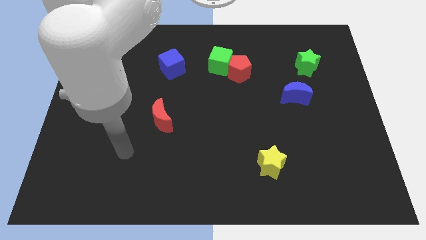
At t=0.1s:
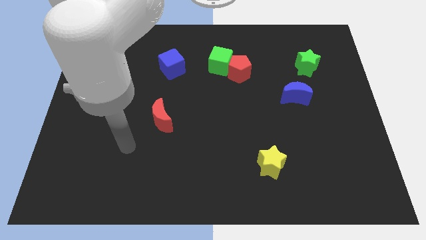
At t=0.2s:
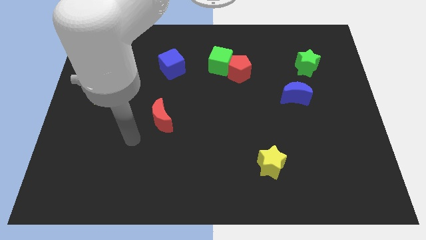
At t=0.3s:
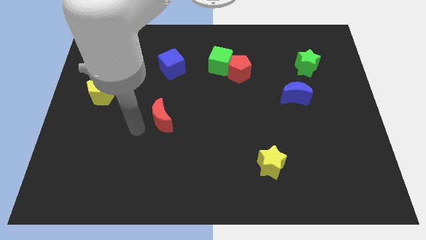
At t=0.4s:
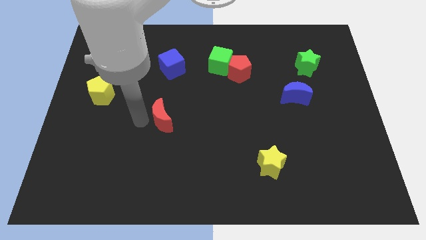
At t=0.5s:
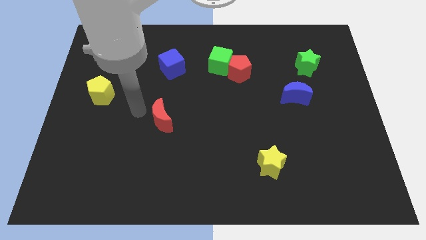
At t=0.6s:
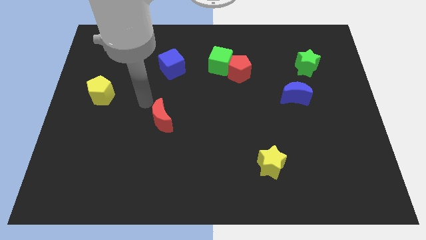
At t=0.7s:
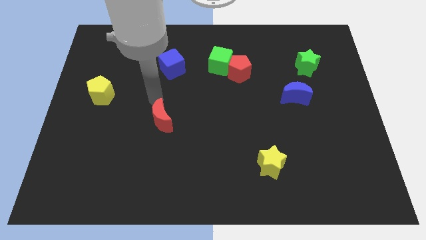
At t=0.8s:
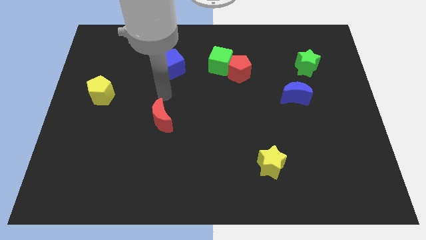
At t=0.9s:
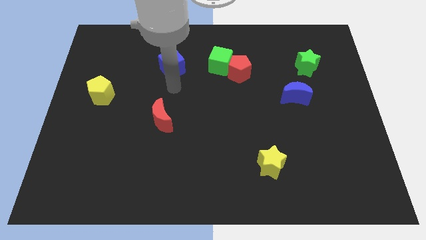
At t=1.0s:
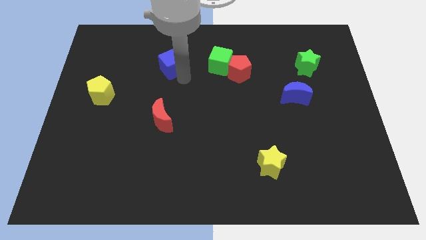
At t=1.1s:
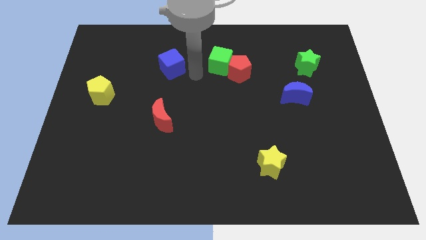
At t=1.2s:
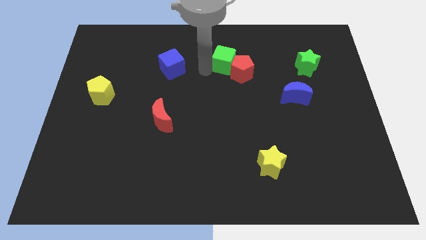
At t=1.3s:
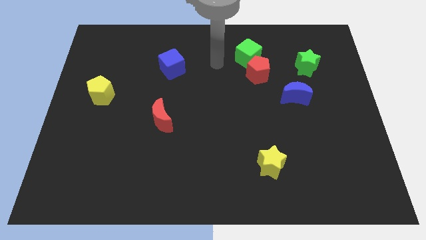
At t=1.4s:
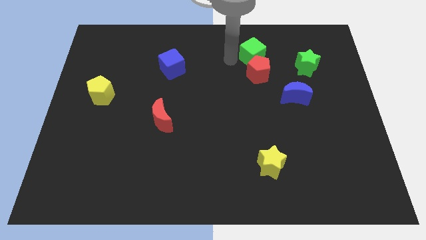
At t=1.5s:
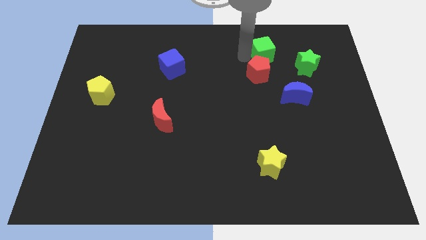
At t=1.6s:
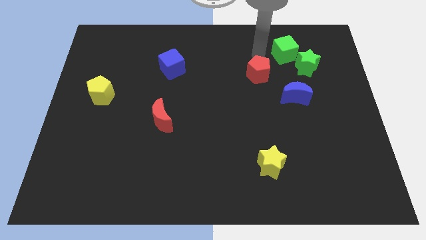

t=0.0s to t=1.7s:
pull the red pentagon apart from the green cube

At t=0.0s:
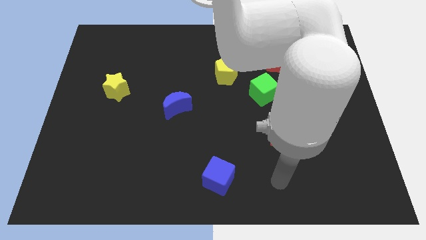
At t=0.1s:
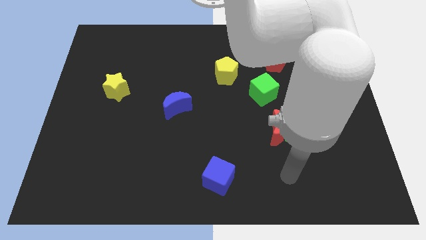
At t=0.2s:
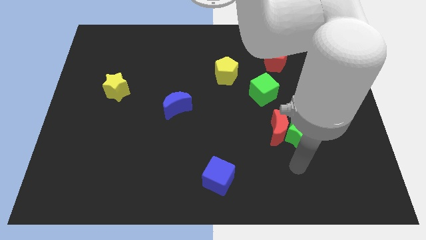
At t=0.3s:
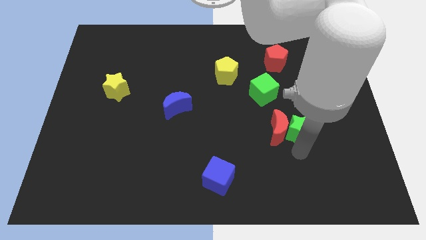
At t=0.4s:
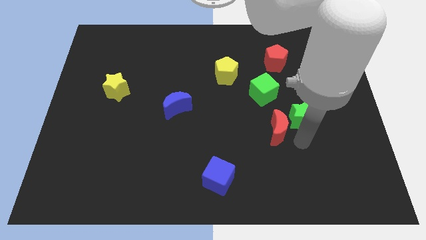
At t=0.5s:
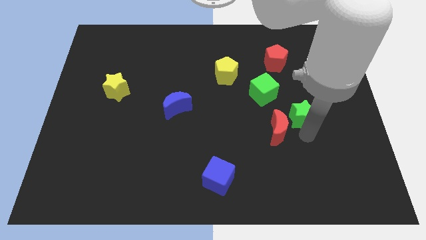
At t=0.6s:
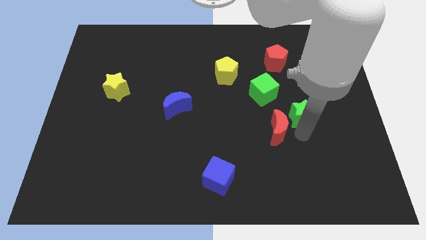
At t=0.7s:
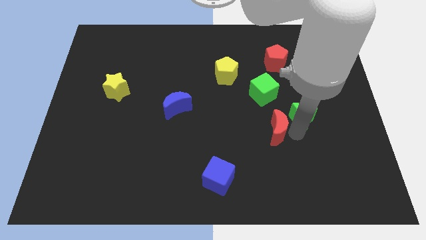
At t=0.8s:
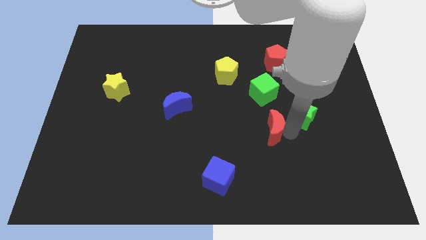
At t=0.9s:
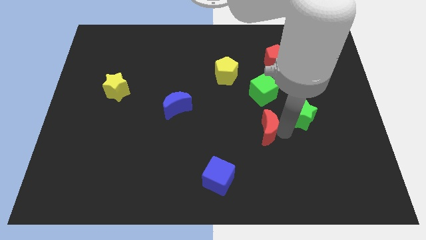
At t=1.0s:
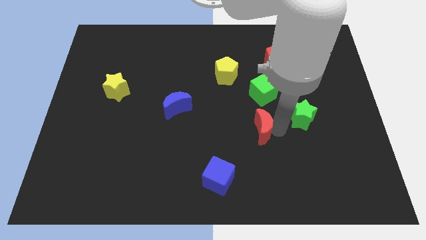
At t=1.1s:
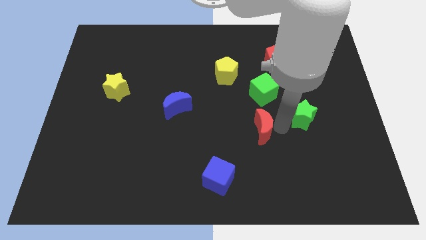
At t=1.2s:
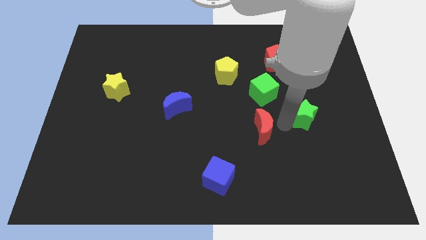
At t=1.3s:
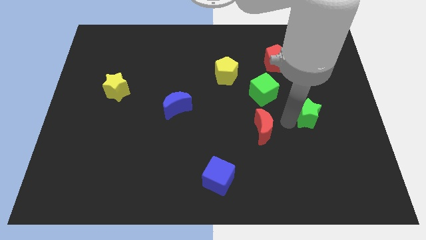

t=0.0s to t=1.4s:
move the red moon away from the green star

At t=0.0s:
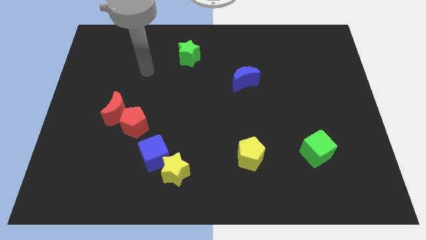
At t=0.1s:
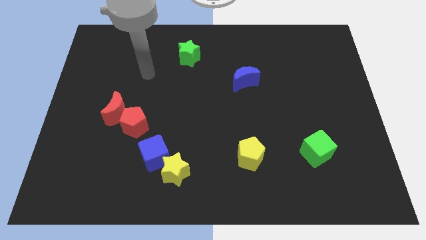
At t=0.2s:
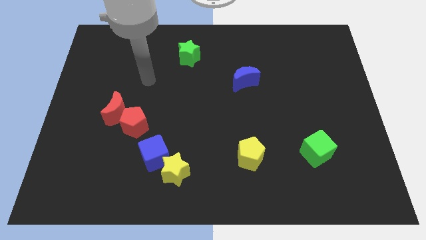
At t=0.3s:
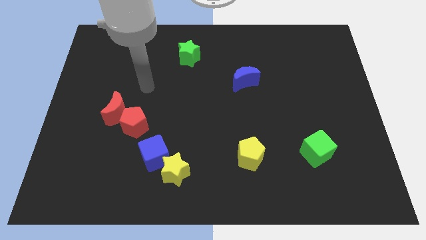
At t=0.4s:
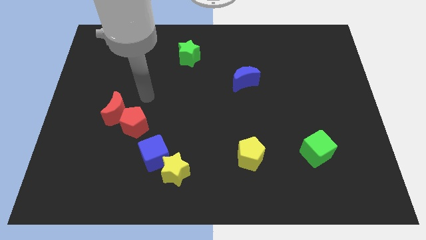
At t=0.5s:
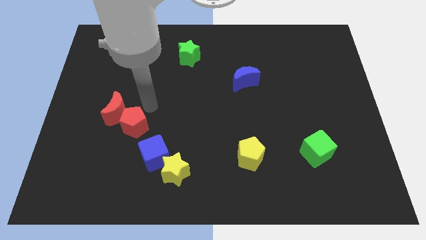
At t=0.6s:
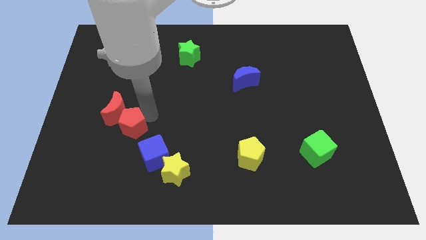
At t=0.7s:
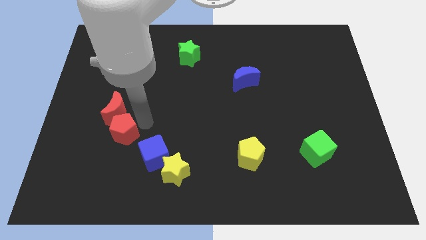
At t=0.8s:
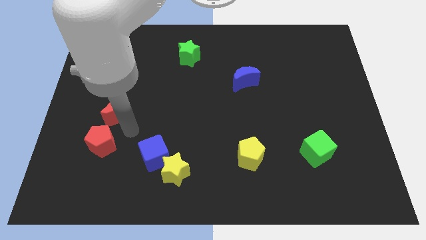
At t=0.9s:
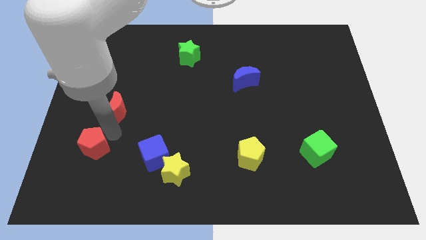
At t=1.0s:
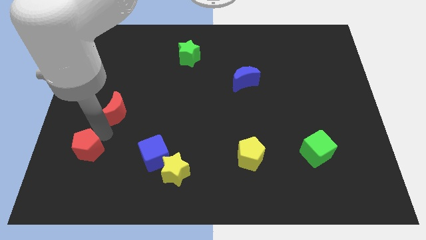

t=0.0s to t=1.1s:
separate the red moon from the red pentagon

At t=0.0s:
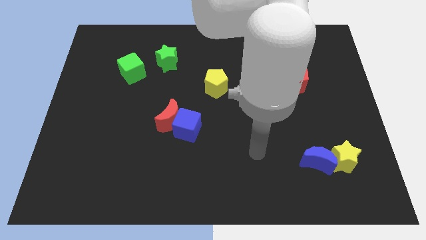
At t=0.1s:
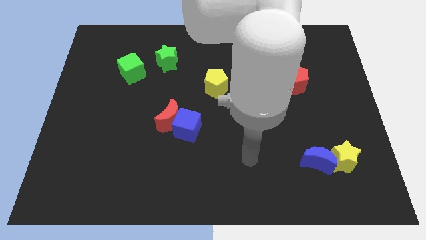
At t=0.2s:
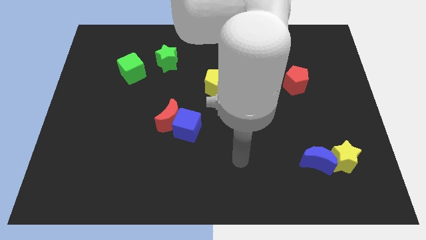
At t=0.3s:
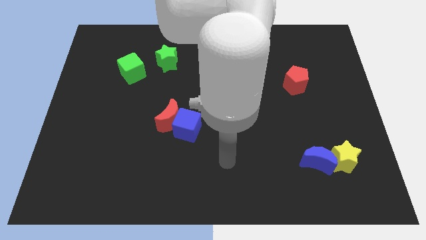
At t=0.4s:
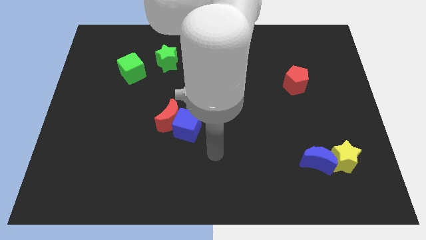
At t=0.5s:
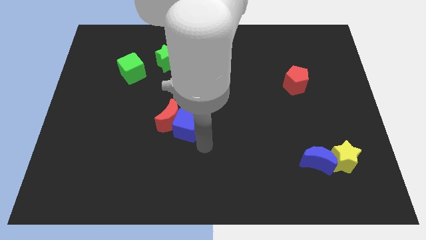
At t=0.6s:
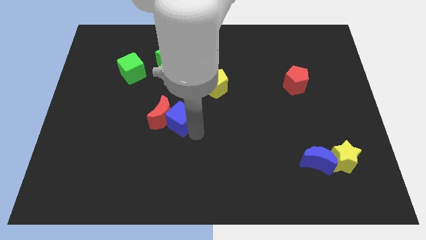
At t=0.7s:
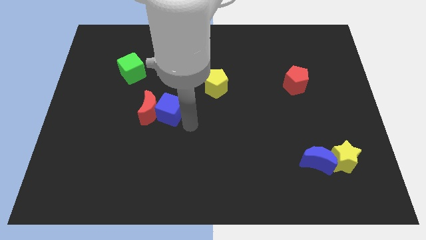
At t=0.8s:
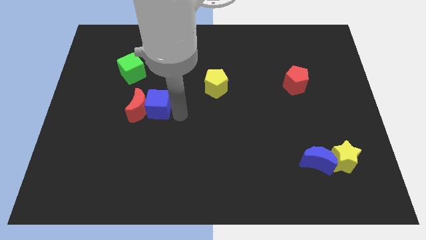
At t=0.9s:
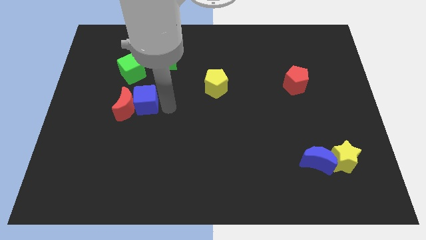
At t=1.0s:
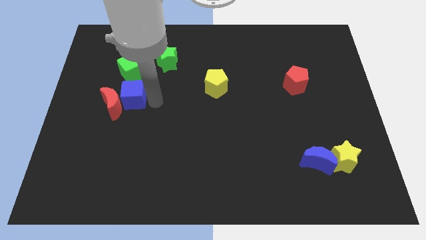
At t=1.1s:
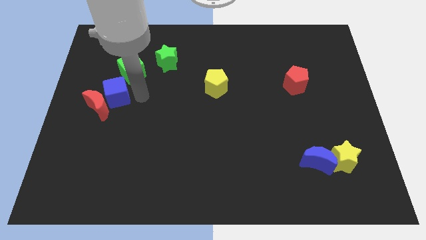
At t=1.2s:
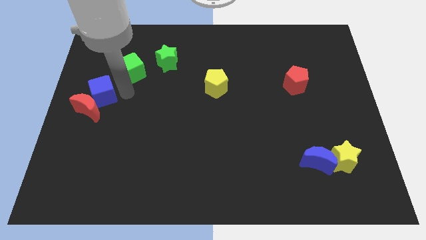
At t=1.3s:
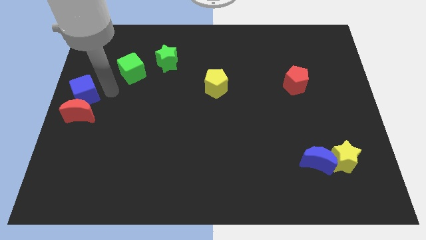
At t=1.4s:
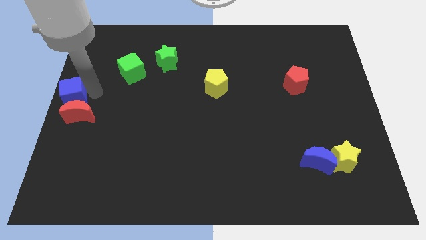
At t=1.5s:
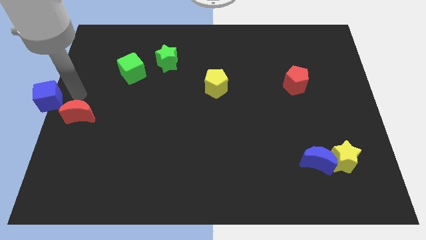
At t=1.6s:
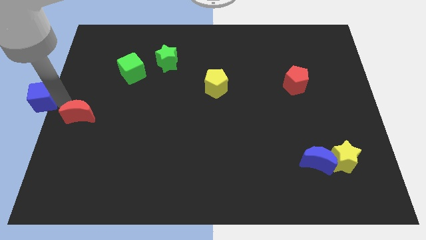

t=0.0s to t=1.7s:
separate the red moon from the blue cube

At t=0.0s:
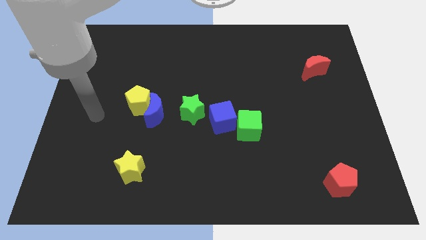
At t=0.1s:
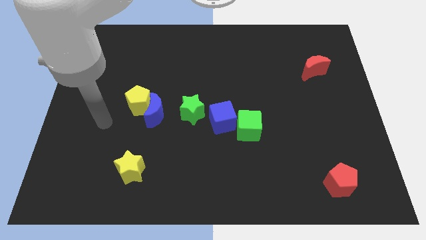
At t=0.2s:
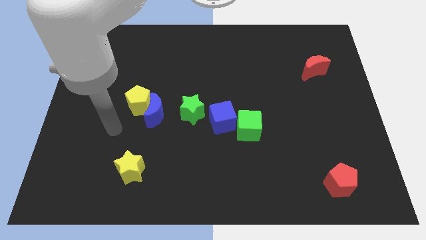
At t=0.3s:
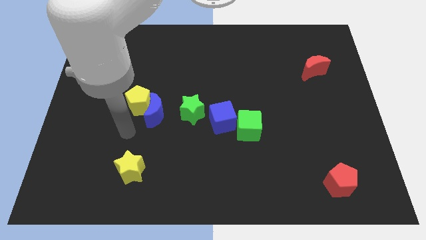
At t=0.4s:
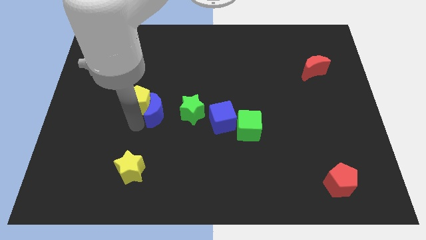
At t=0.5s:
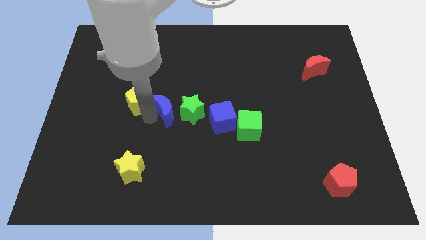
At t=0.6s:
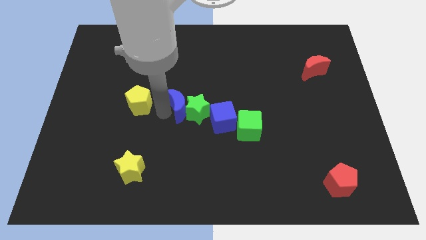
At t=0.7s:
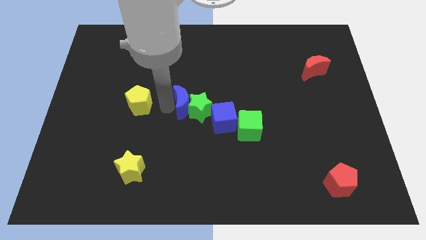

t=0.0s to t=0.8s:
pull the yellow pentagon apart from the blue moon

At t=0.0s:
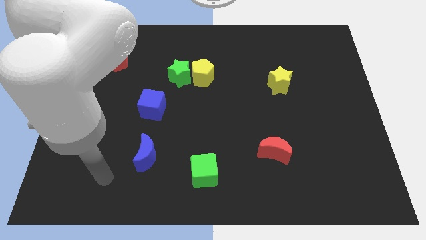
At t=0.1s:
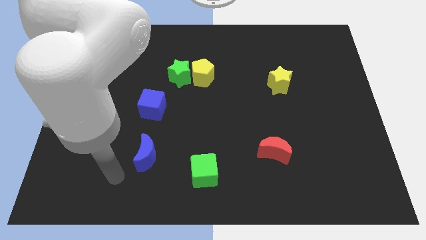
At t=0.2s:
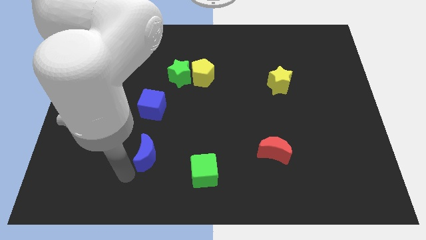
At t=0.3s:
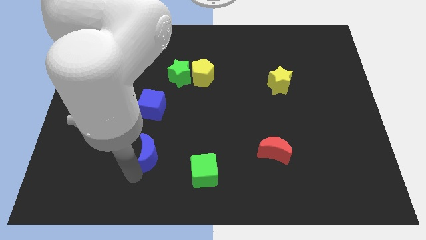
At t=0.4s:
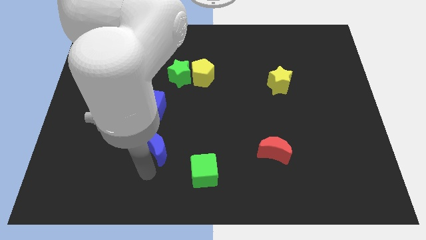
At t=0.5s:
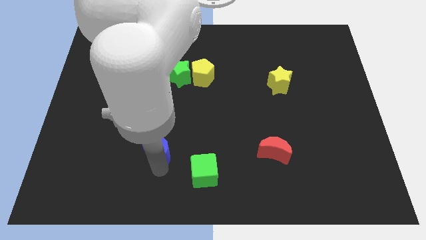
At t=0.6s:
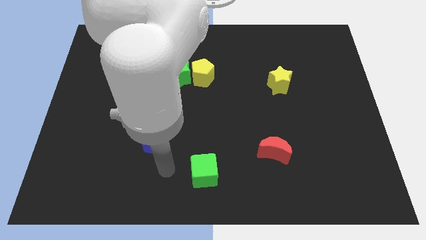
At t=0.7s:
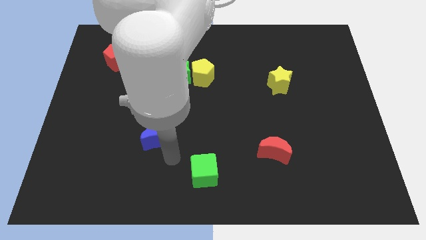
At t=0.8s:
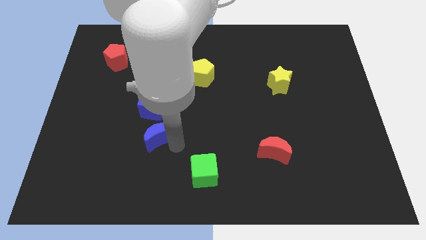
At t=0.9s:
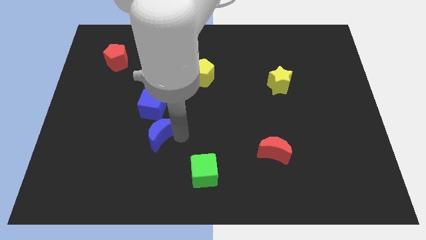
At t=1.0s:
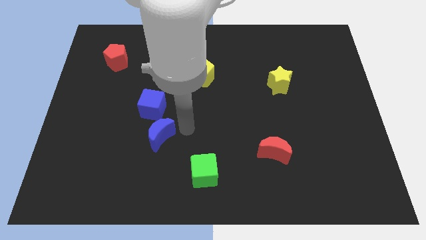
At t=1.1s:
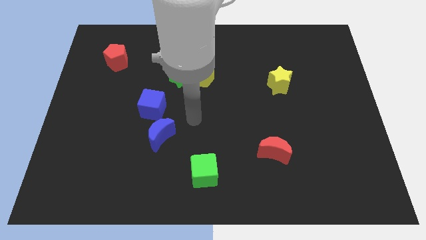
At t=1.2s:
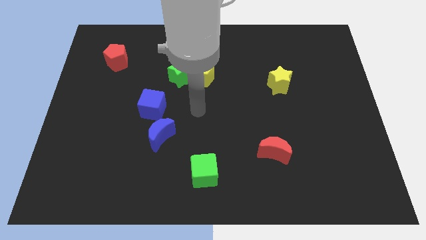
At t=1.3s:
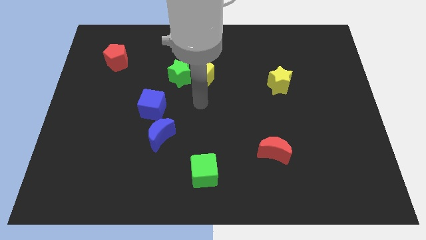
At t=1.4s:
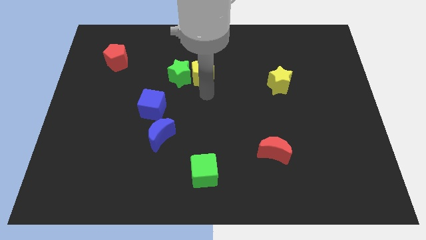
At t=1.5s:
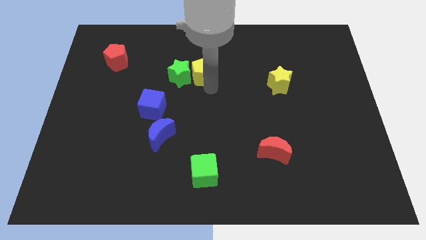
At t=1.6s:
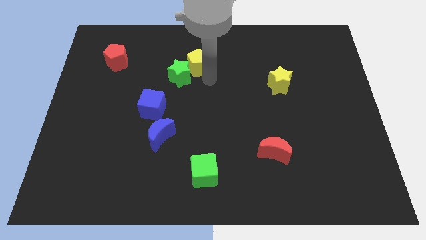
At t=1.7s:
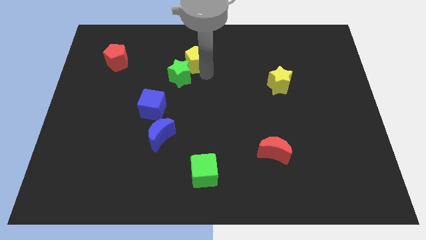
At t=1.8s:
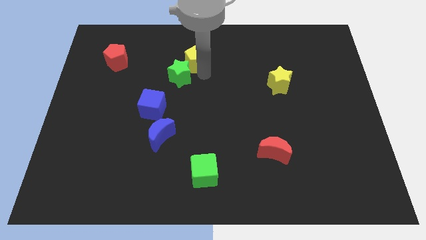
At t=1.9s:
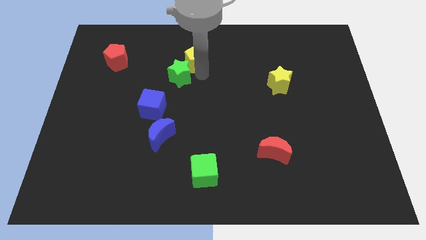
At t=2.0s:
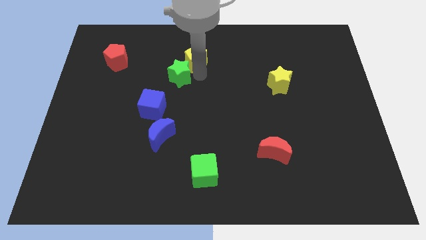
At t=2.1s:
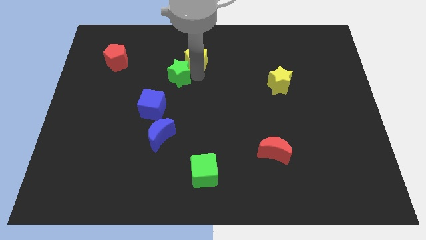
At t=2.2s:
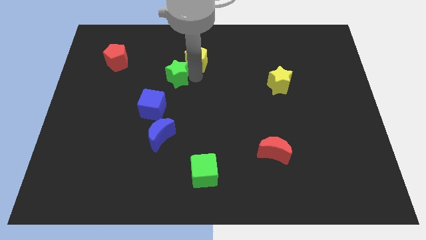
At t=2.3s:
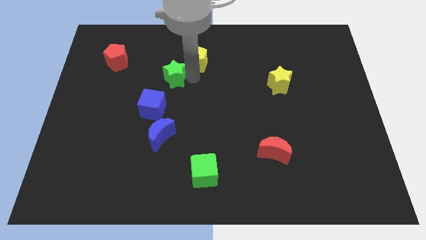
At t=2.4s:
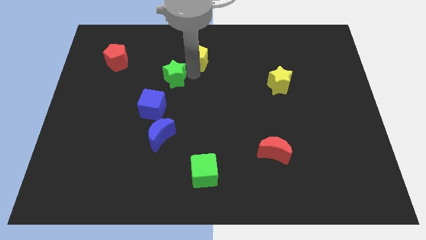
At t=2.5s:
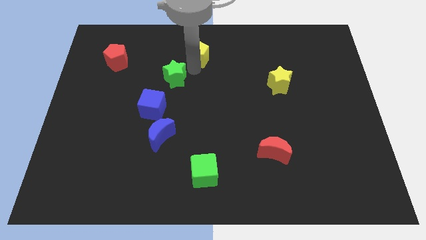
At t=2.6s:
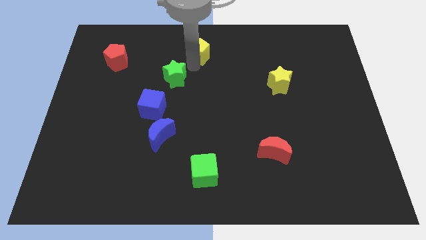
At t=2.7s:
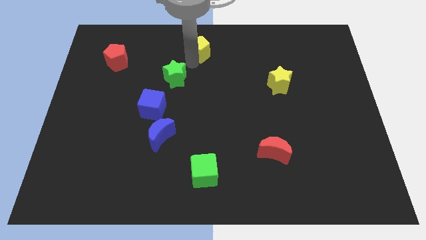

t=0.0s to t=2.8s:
move the green star away from the yellow pentagon

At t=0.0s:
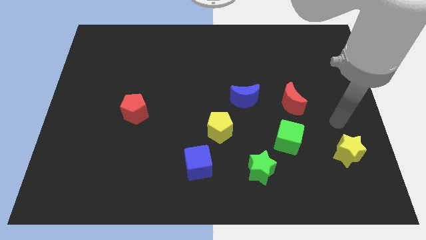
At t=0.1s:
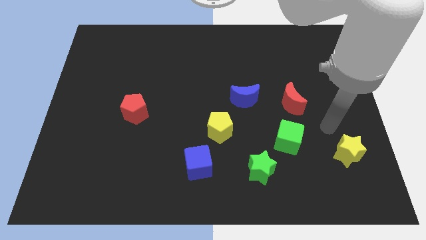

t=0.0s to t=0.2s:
pull the green cube apart from the green star
